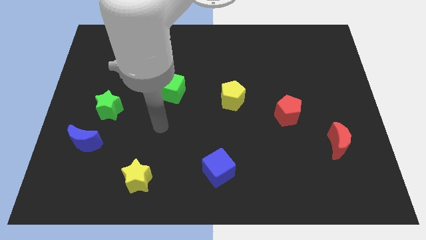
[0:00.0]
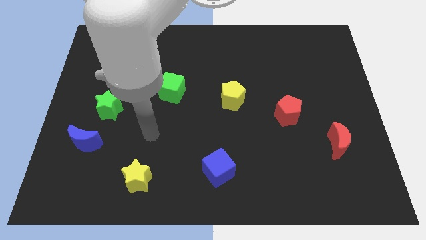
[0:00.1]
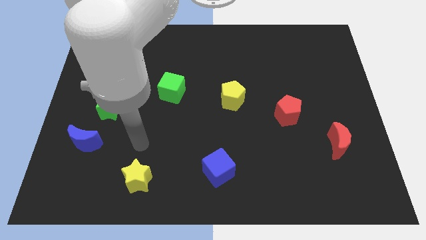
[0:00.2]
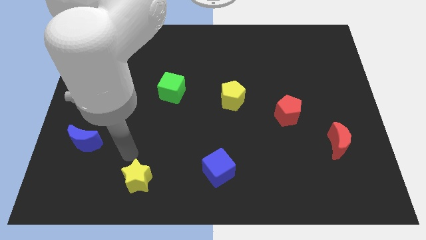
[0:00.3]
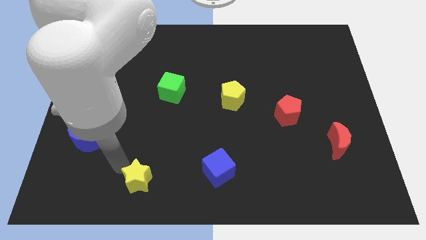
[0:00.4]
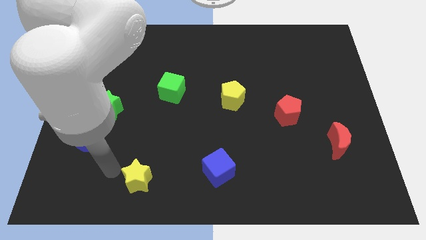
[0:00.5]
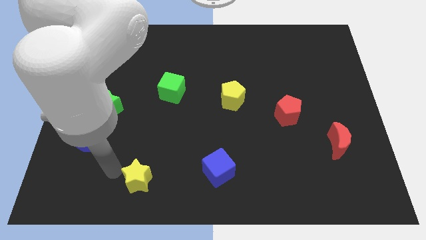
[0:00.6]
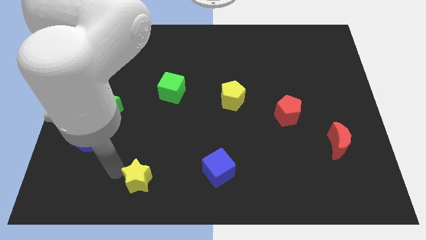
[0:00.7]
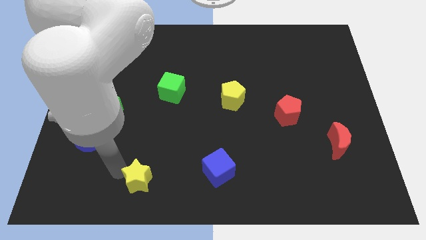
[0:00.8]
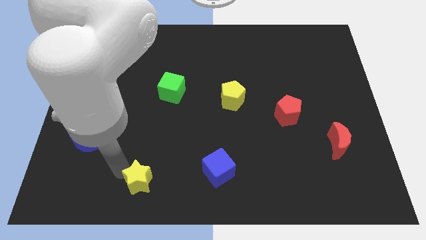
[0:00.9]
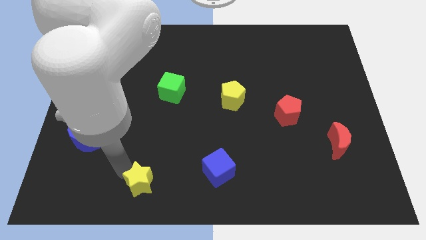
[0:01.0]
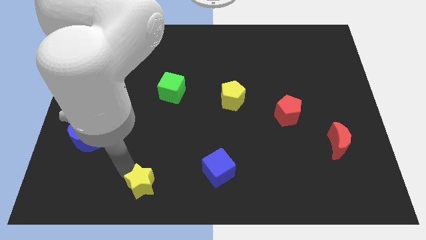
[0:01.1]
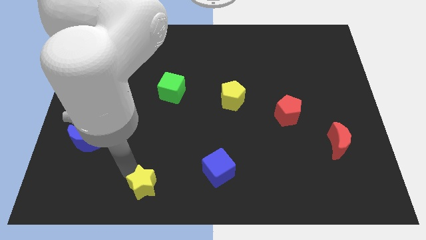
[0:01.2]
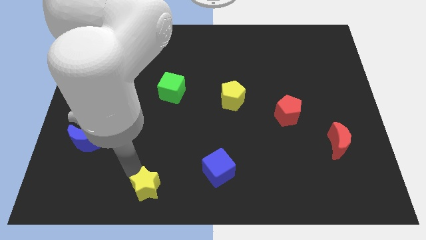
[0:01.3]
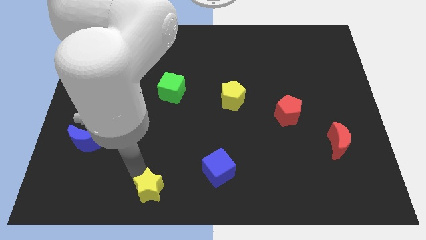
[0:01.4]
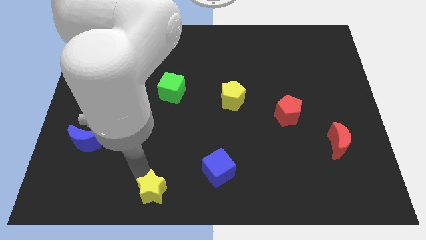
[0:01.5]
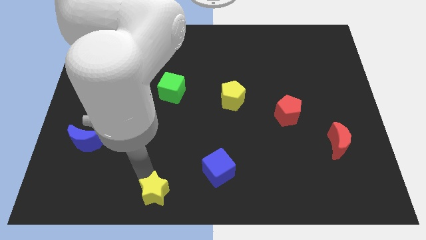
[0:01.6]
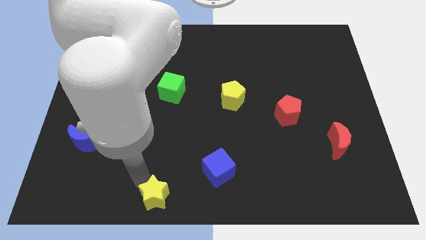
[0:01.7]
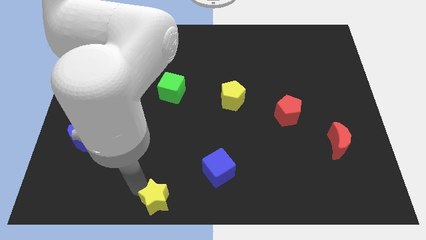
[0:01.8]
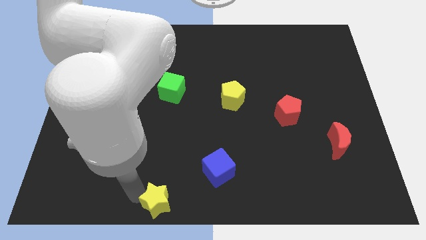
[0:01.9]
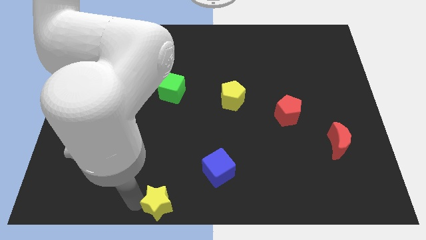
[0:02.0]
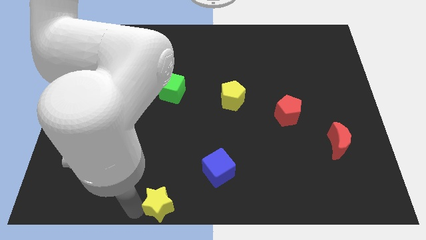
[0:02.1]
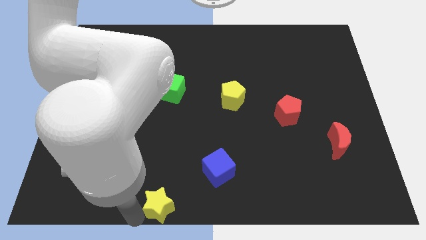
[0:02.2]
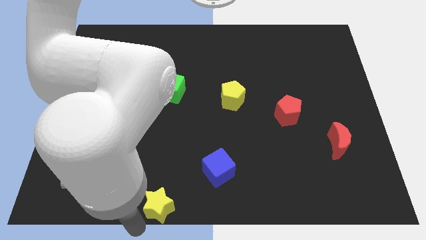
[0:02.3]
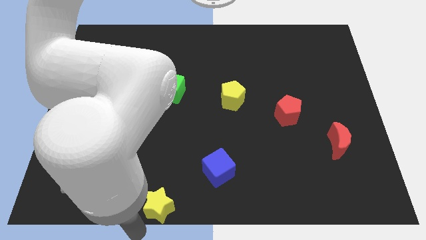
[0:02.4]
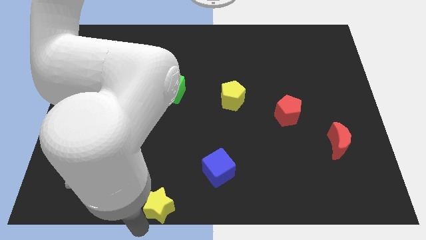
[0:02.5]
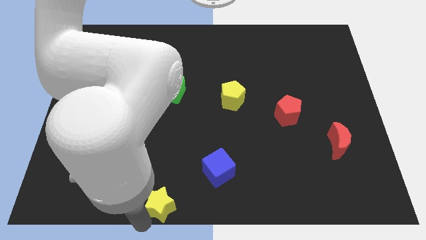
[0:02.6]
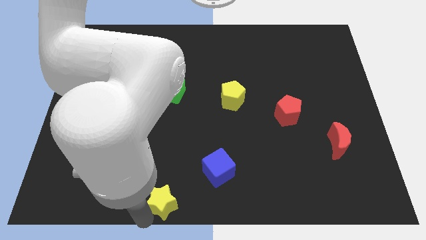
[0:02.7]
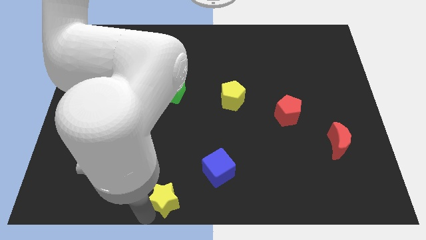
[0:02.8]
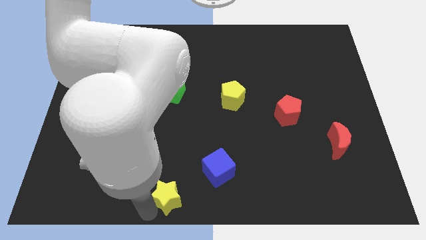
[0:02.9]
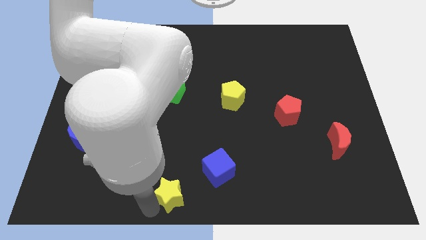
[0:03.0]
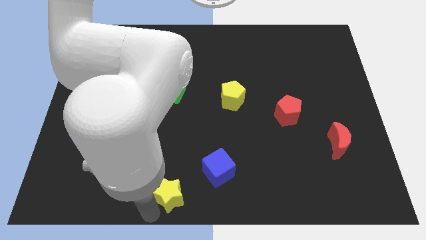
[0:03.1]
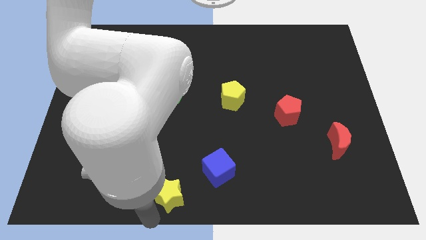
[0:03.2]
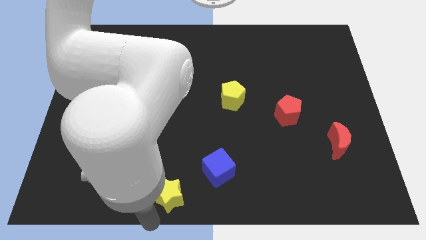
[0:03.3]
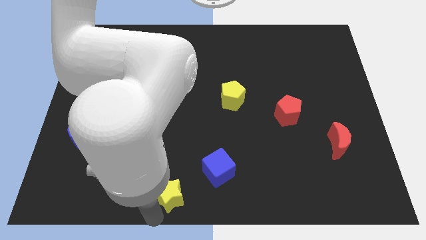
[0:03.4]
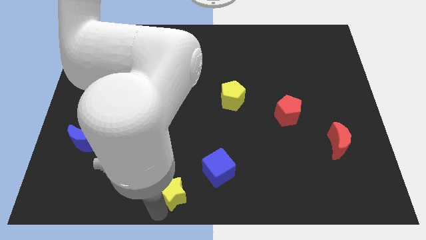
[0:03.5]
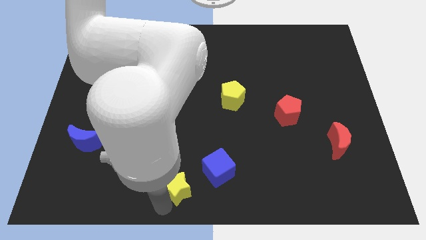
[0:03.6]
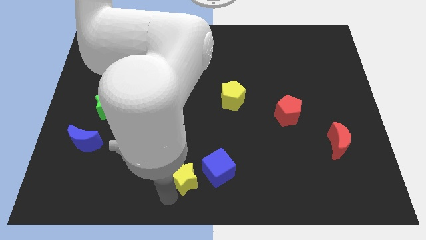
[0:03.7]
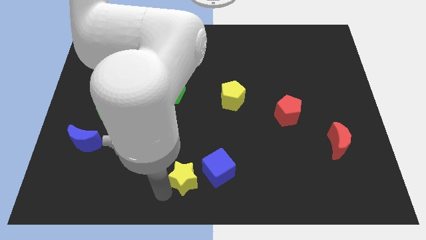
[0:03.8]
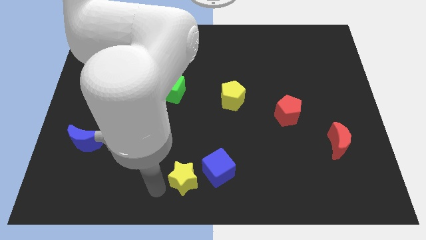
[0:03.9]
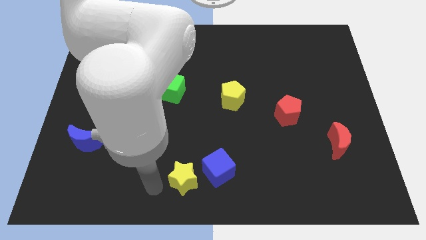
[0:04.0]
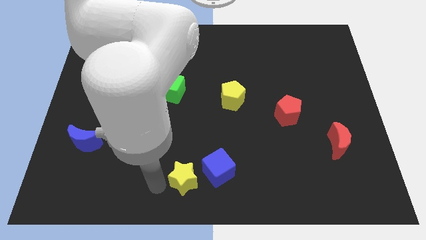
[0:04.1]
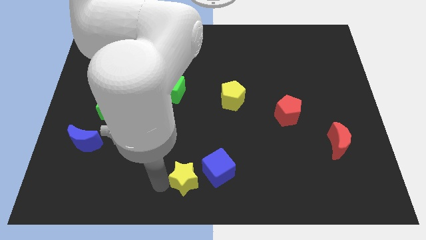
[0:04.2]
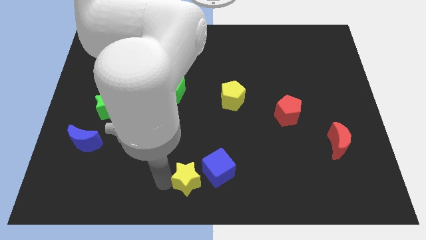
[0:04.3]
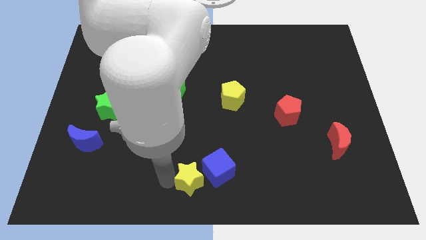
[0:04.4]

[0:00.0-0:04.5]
put the yellow star to the blue cube

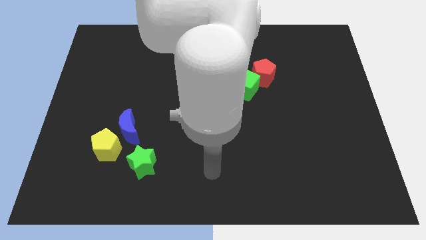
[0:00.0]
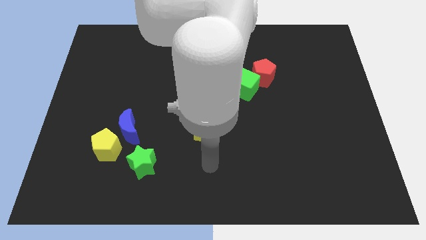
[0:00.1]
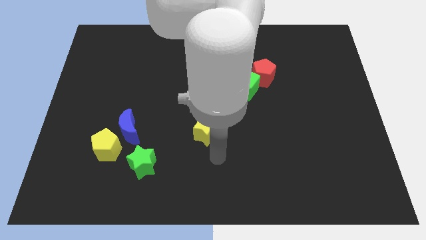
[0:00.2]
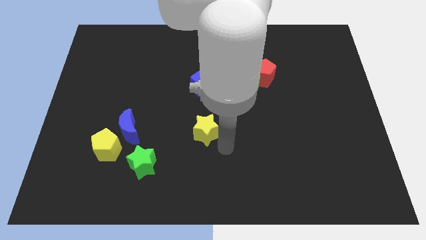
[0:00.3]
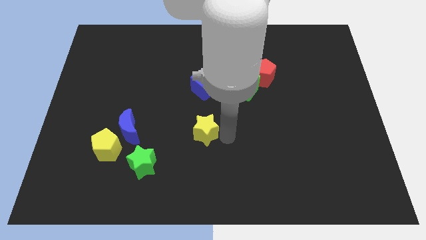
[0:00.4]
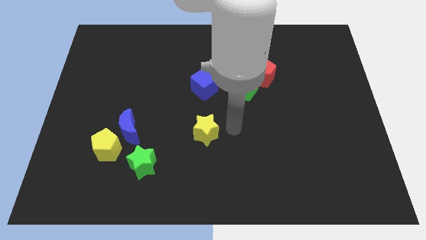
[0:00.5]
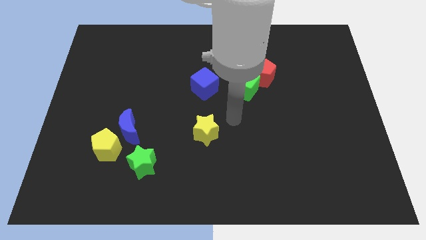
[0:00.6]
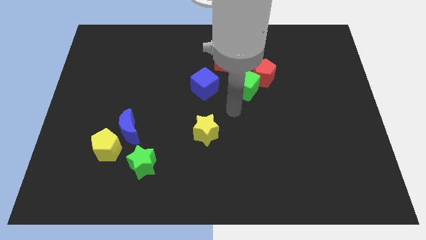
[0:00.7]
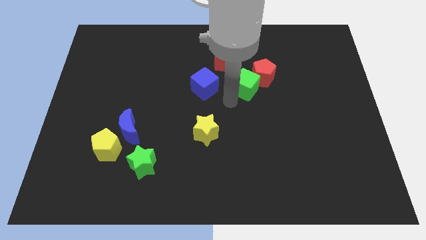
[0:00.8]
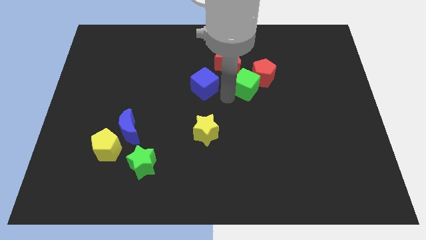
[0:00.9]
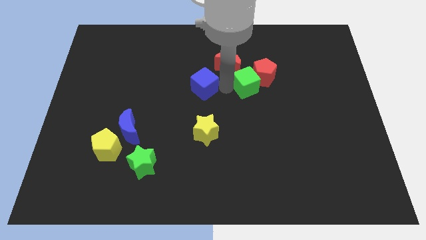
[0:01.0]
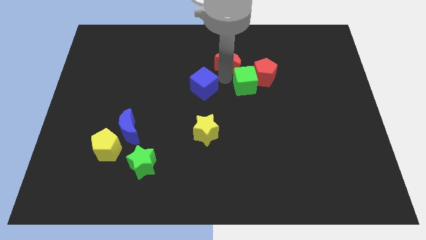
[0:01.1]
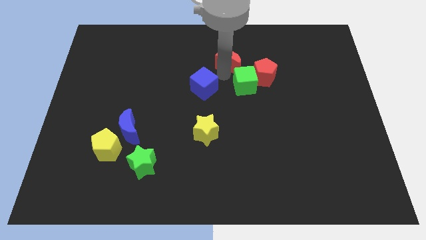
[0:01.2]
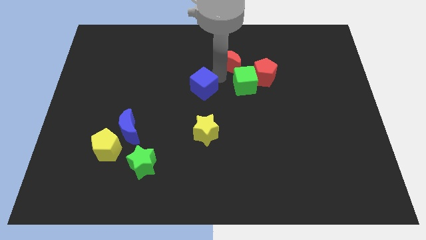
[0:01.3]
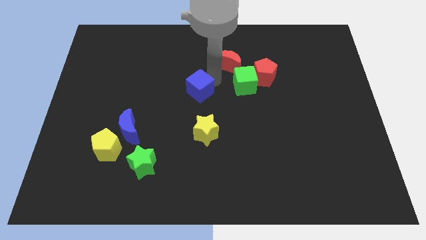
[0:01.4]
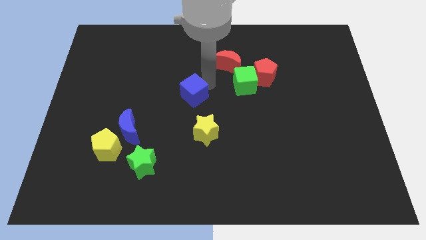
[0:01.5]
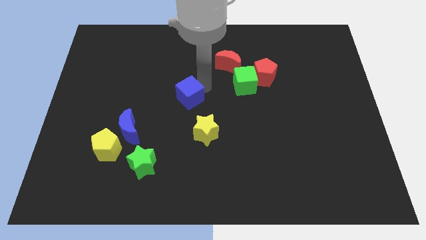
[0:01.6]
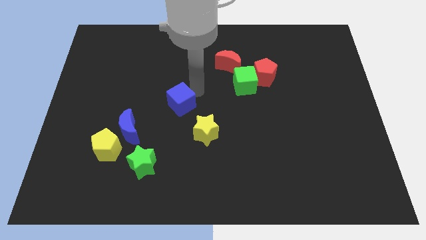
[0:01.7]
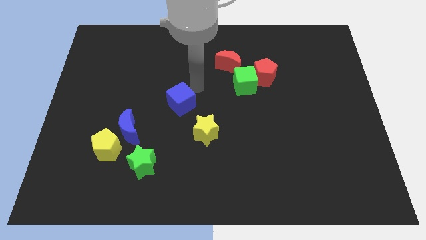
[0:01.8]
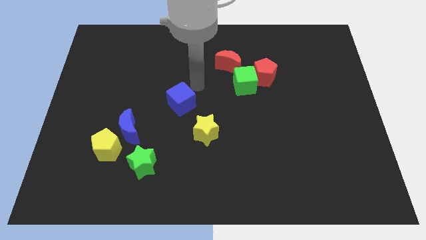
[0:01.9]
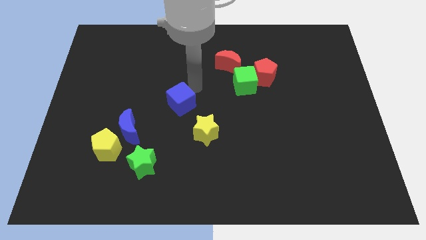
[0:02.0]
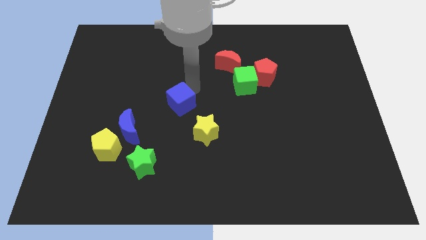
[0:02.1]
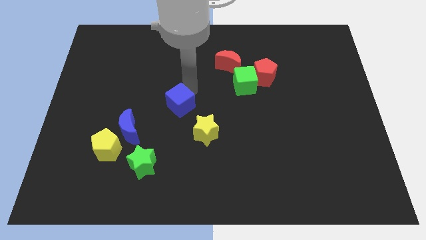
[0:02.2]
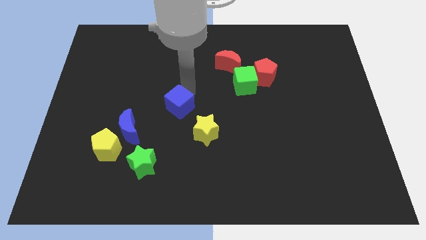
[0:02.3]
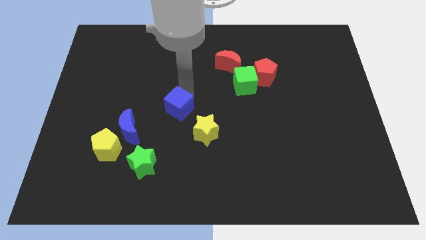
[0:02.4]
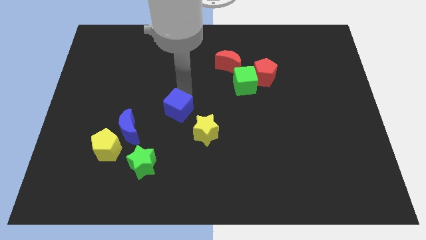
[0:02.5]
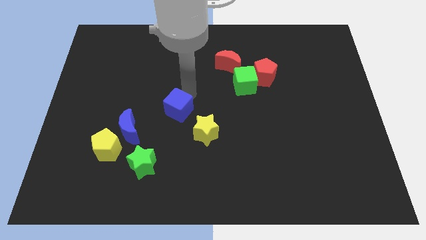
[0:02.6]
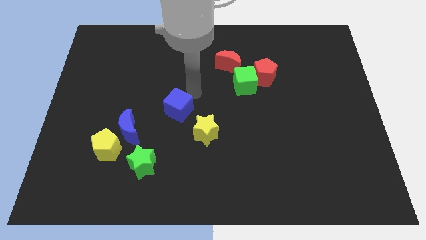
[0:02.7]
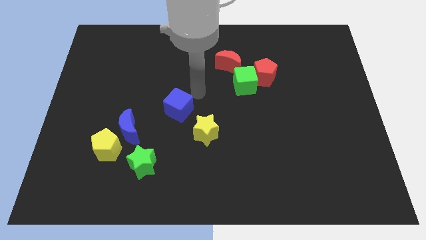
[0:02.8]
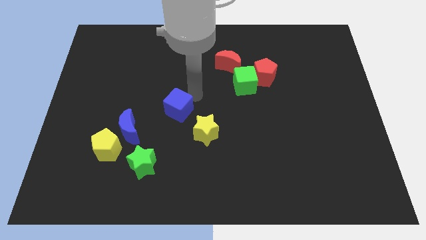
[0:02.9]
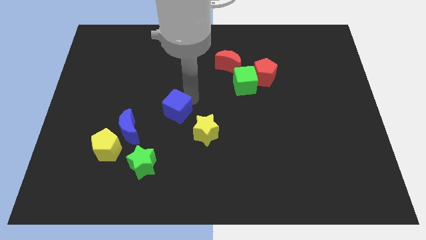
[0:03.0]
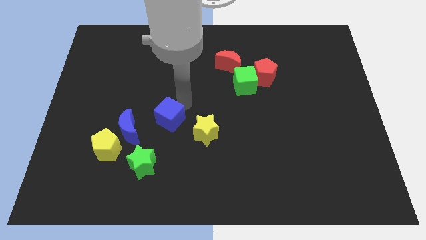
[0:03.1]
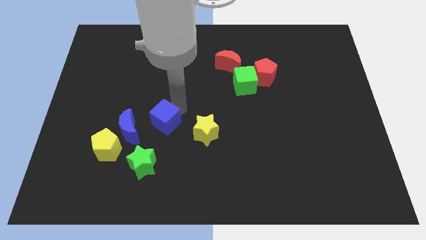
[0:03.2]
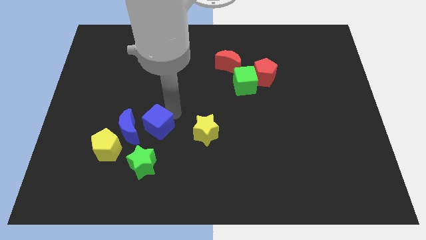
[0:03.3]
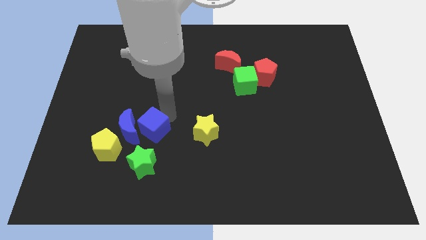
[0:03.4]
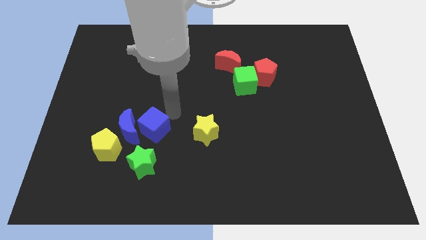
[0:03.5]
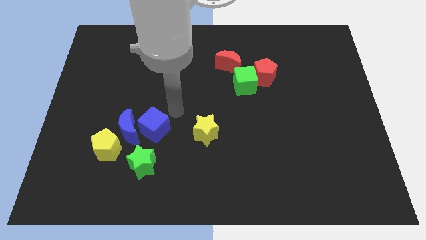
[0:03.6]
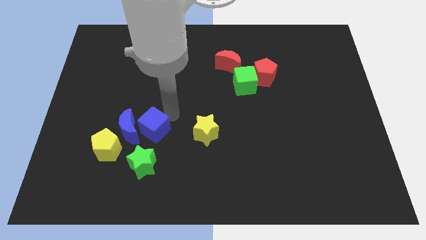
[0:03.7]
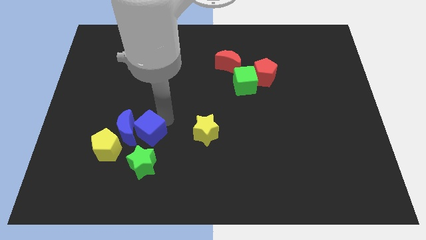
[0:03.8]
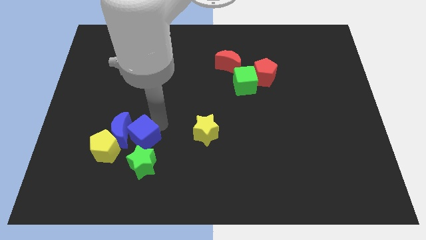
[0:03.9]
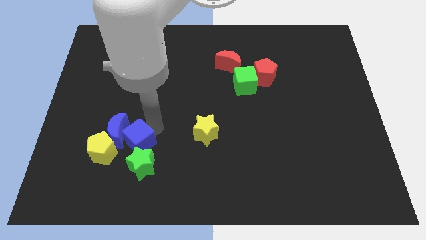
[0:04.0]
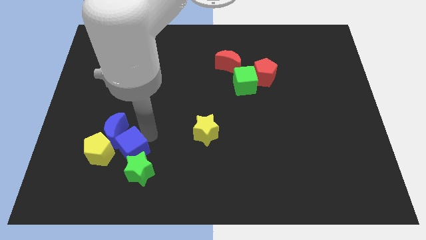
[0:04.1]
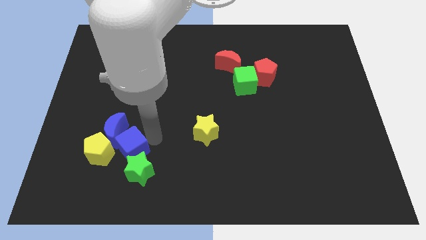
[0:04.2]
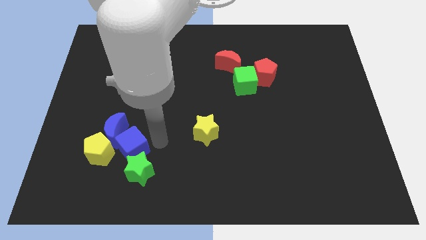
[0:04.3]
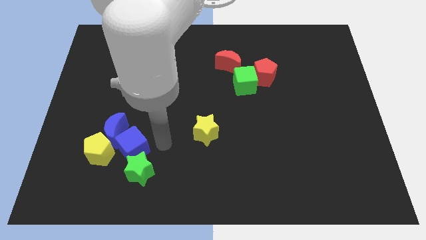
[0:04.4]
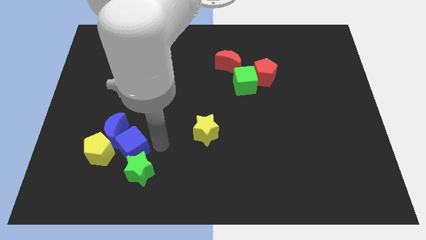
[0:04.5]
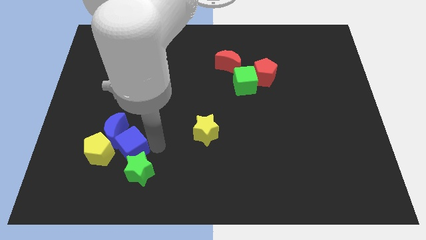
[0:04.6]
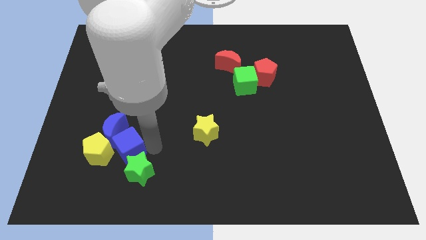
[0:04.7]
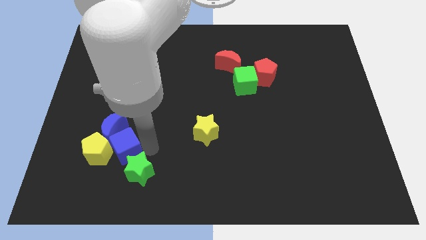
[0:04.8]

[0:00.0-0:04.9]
slide the blue cube next to the yellow pentagon
